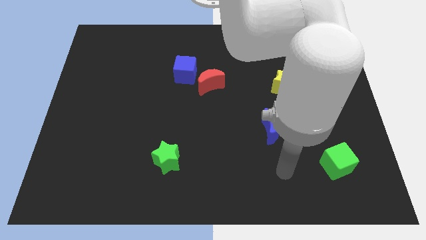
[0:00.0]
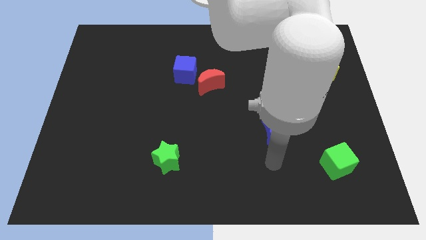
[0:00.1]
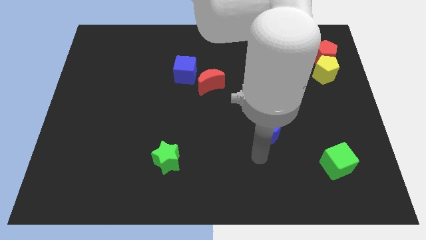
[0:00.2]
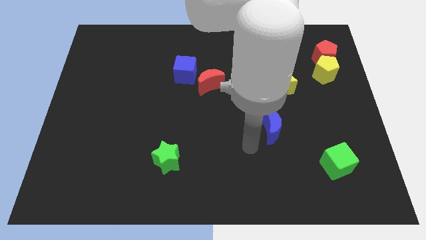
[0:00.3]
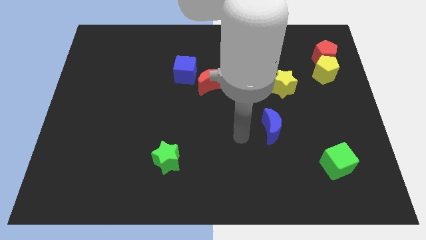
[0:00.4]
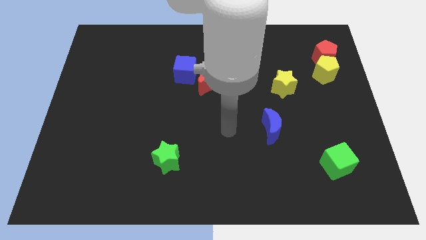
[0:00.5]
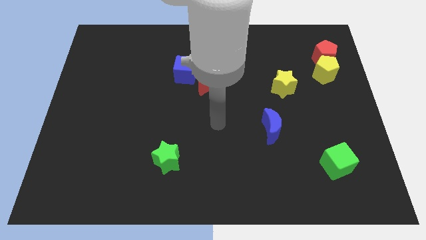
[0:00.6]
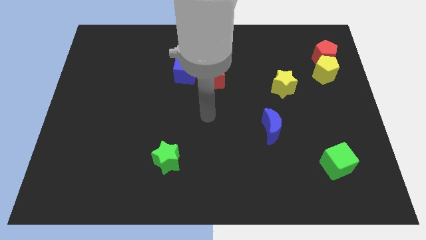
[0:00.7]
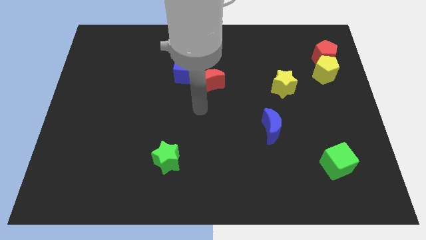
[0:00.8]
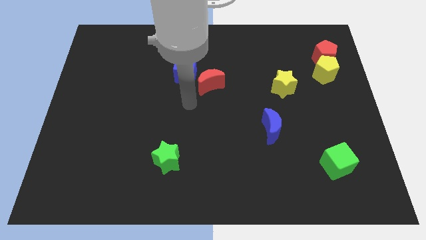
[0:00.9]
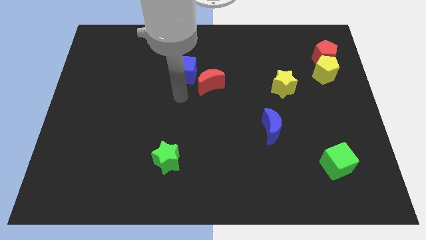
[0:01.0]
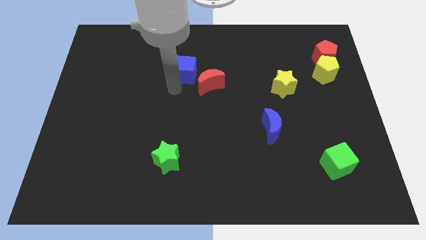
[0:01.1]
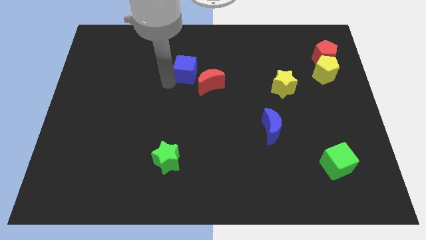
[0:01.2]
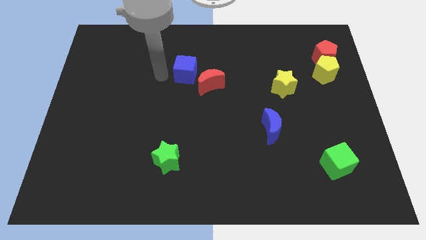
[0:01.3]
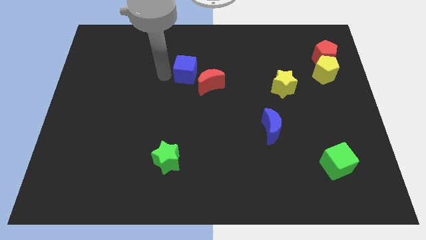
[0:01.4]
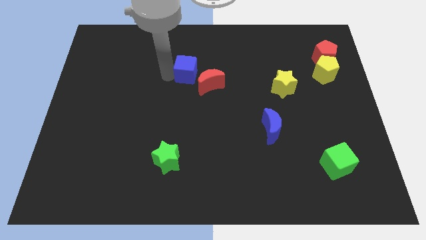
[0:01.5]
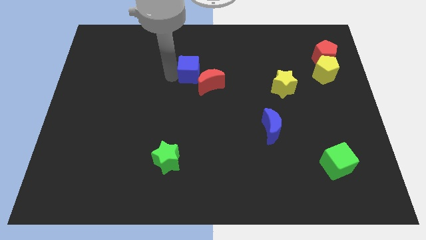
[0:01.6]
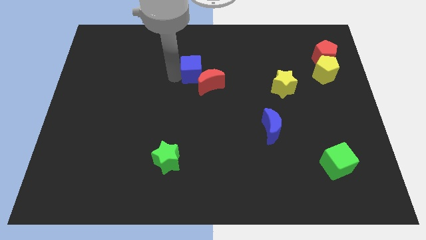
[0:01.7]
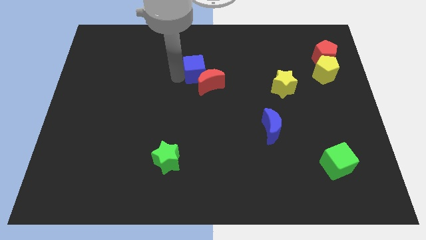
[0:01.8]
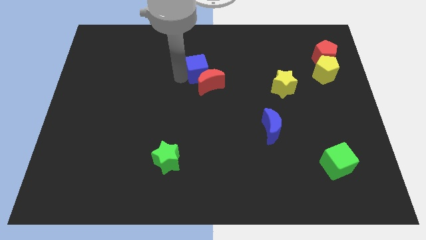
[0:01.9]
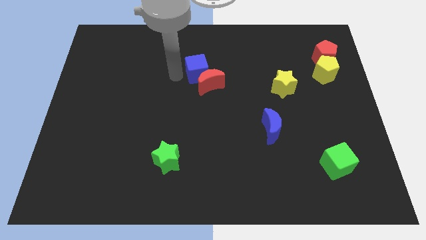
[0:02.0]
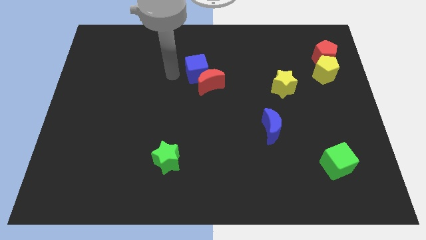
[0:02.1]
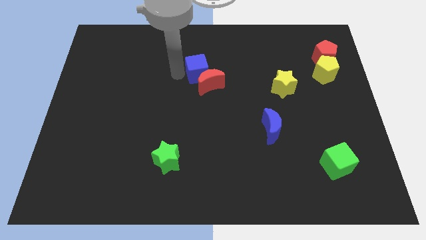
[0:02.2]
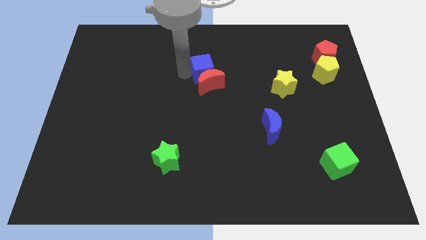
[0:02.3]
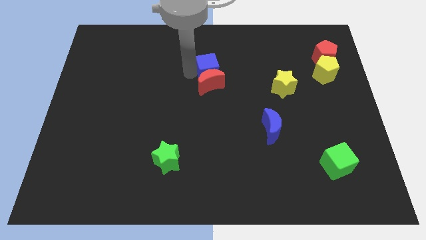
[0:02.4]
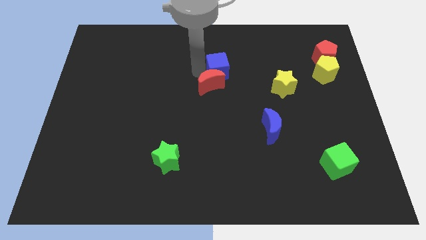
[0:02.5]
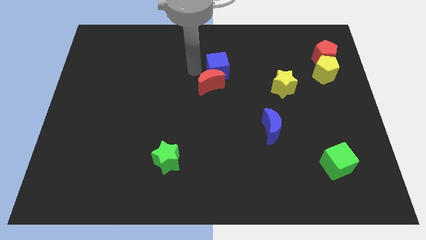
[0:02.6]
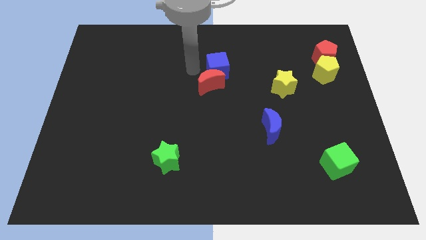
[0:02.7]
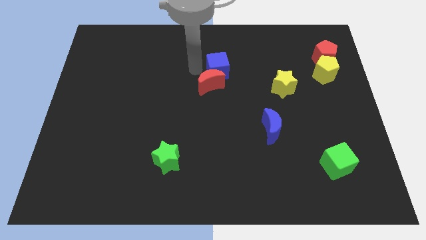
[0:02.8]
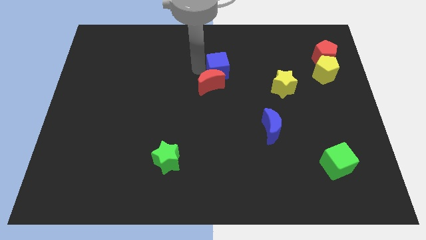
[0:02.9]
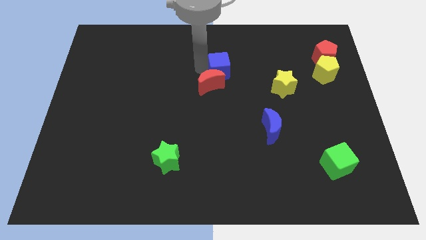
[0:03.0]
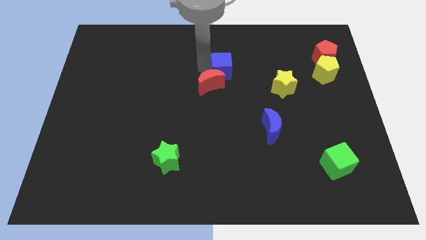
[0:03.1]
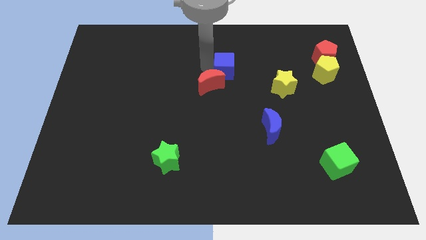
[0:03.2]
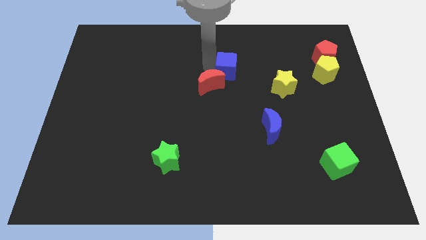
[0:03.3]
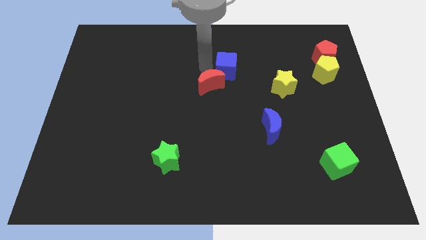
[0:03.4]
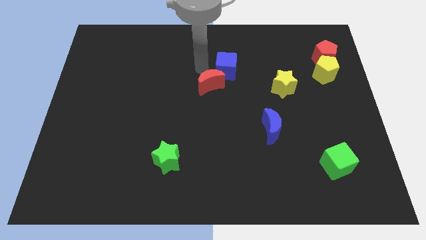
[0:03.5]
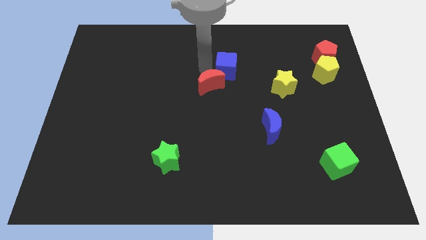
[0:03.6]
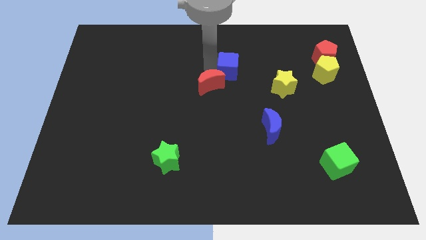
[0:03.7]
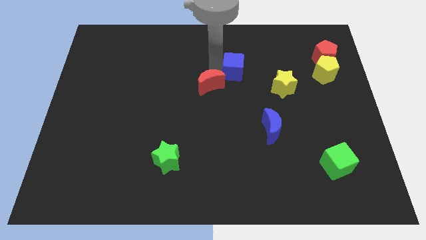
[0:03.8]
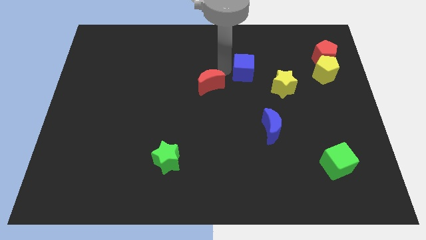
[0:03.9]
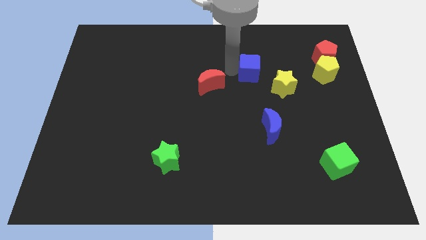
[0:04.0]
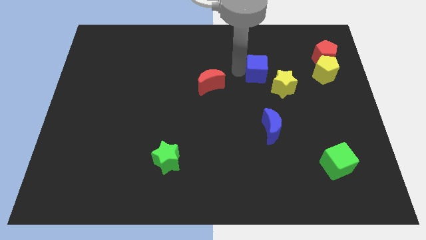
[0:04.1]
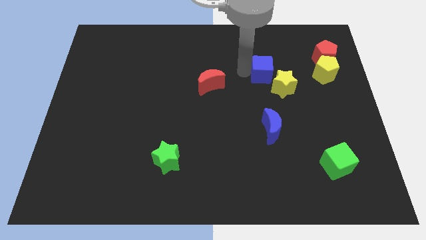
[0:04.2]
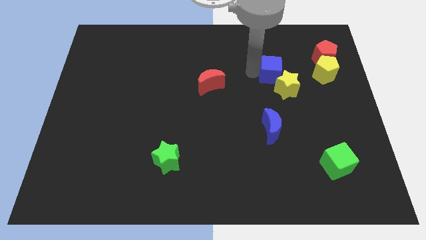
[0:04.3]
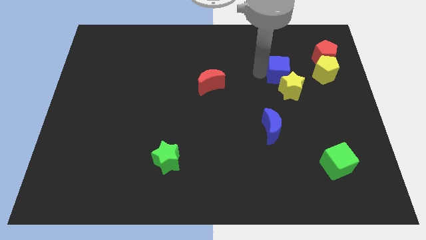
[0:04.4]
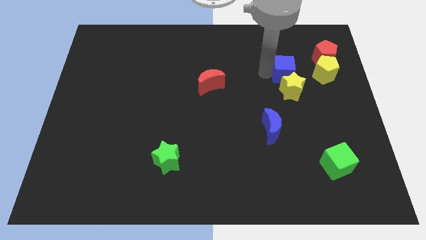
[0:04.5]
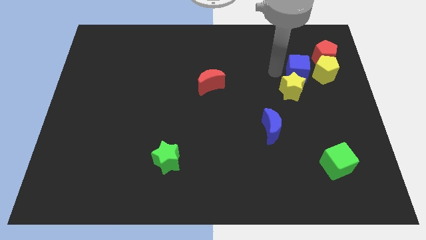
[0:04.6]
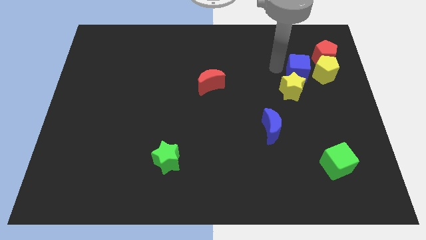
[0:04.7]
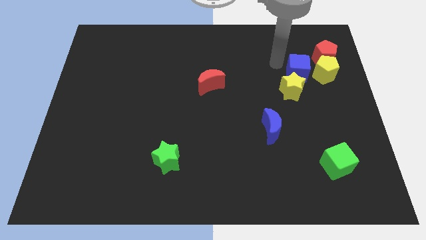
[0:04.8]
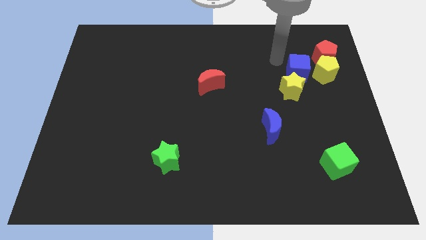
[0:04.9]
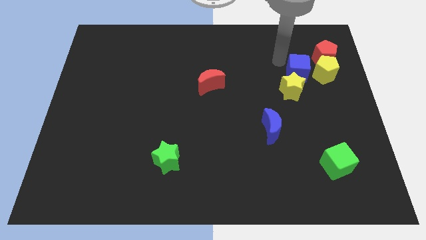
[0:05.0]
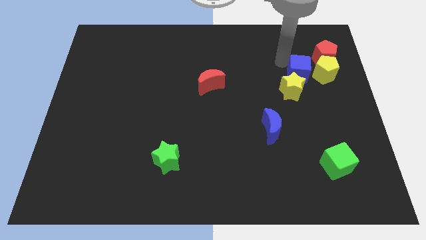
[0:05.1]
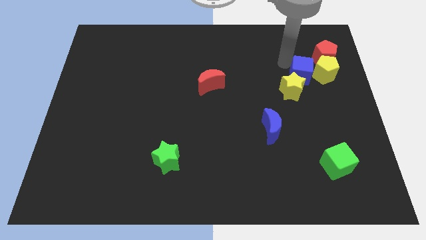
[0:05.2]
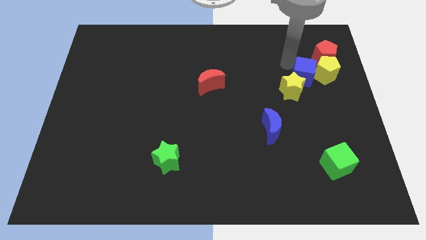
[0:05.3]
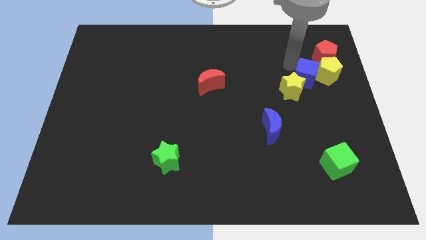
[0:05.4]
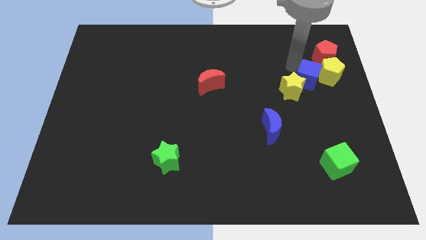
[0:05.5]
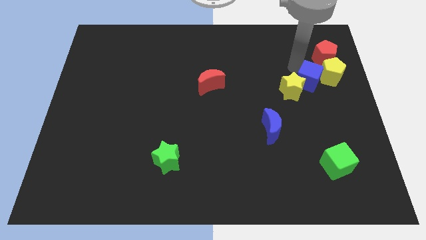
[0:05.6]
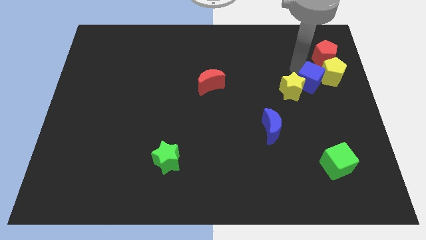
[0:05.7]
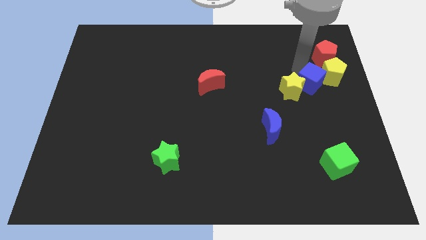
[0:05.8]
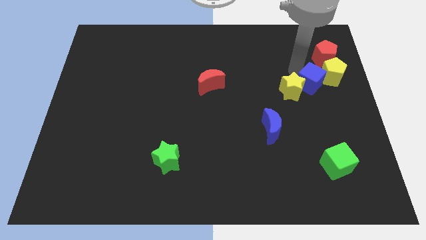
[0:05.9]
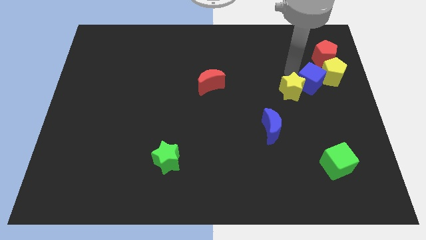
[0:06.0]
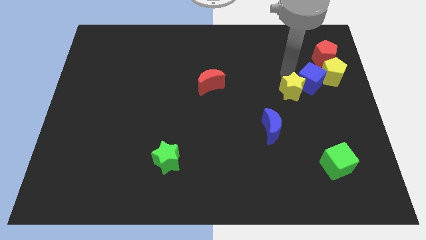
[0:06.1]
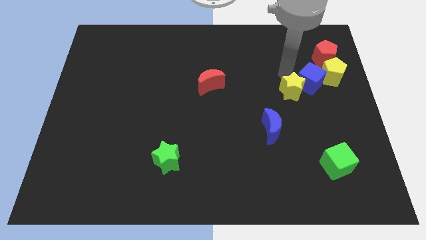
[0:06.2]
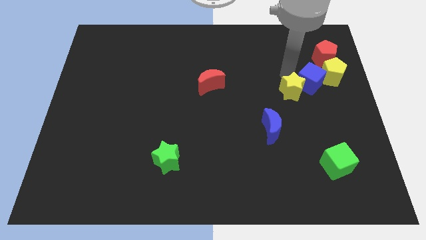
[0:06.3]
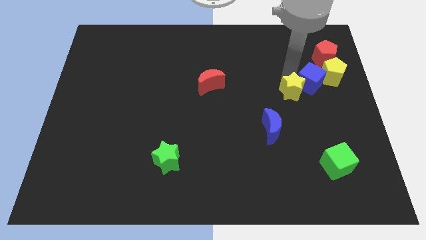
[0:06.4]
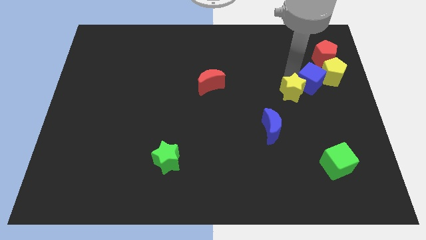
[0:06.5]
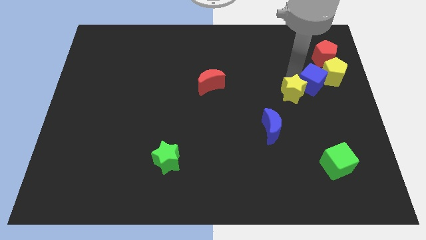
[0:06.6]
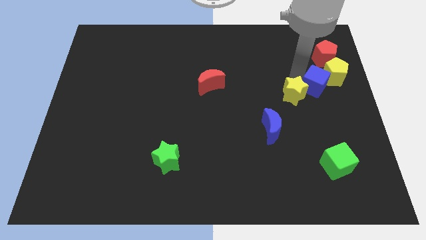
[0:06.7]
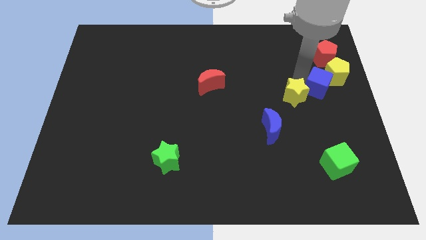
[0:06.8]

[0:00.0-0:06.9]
push the blue cube to the right side of the board

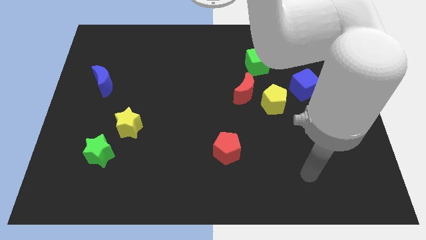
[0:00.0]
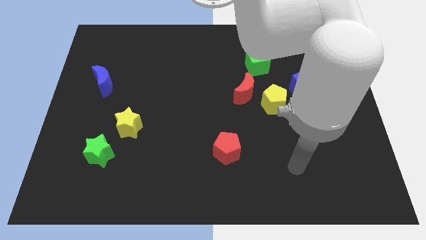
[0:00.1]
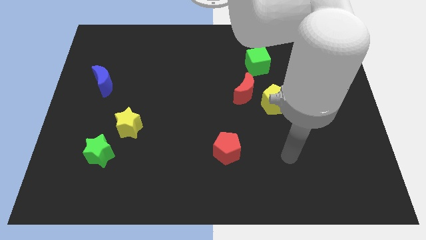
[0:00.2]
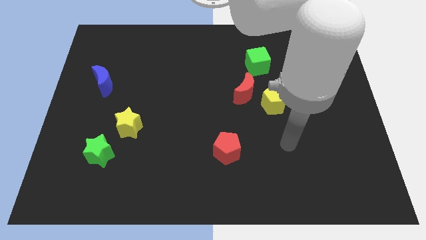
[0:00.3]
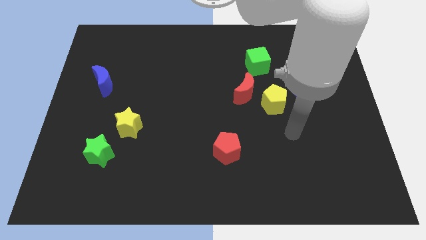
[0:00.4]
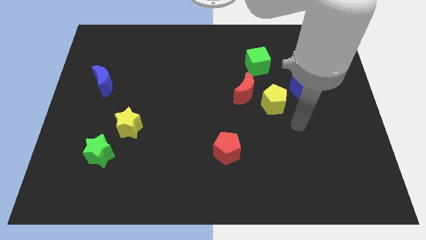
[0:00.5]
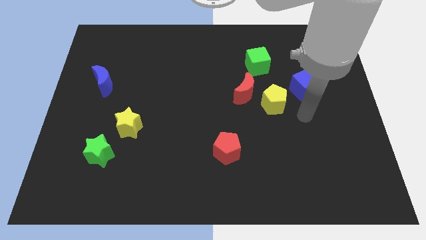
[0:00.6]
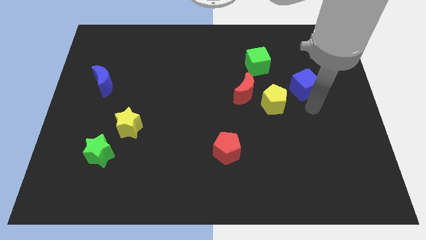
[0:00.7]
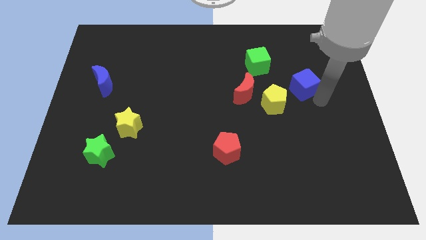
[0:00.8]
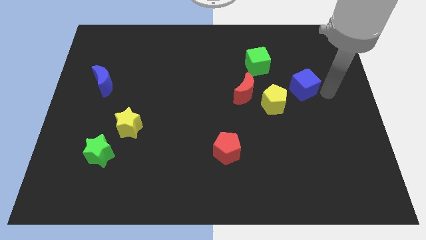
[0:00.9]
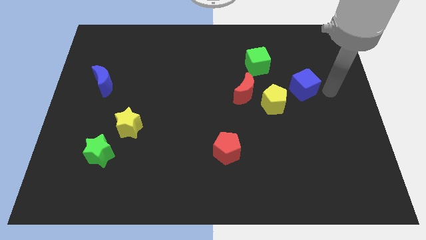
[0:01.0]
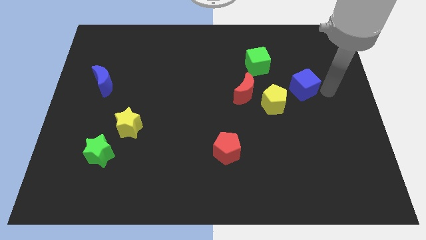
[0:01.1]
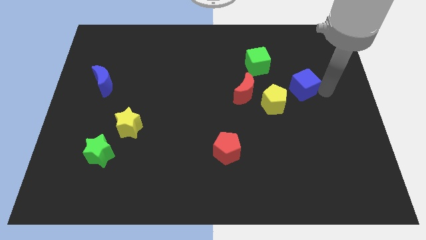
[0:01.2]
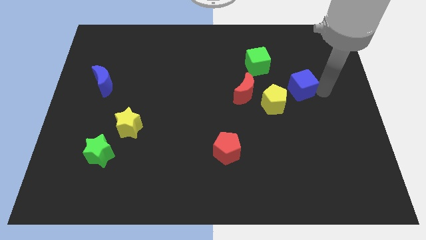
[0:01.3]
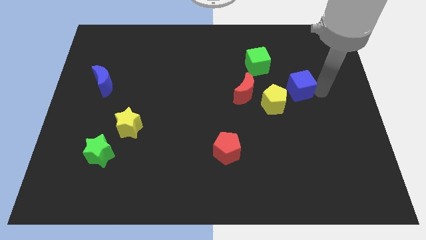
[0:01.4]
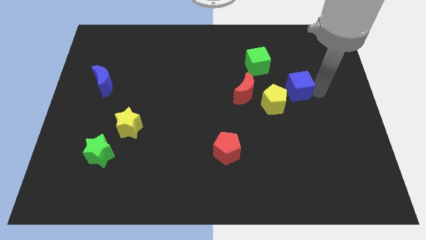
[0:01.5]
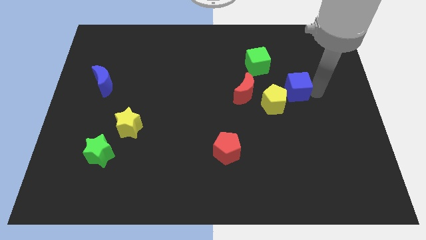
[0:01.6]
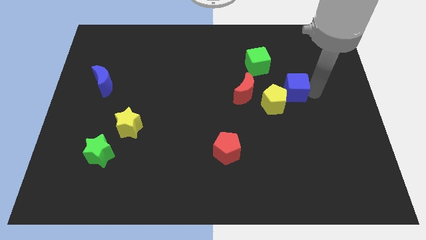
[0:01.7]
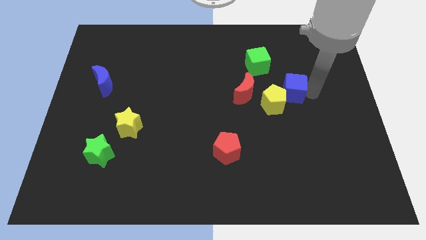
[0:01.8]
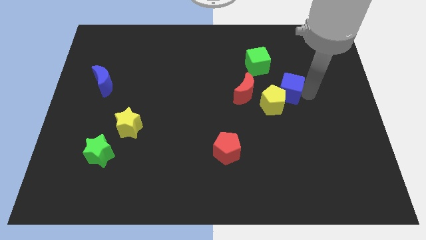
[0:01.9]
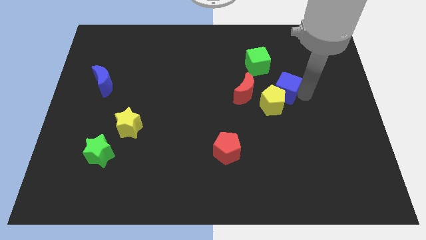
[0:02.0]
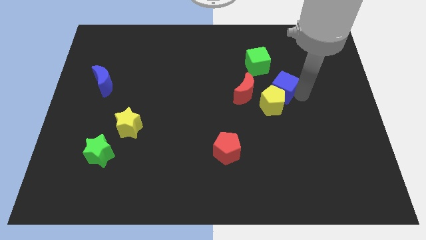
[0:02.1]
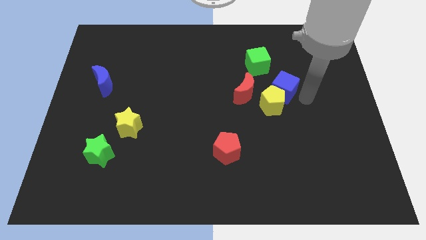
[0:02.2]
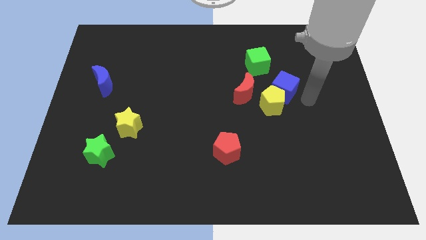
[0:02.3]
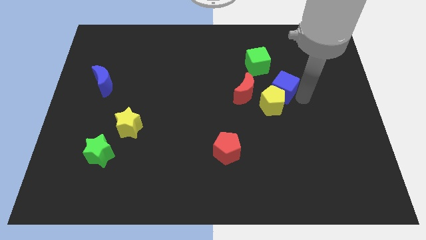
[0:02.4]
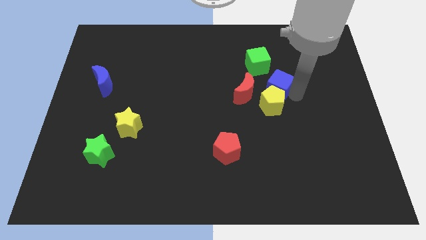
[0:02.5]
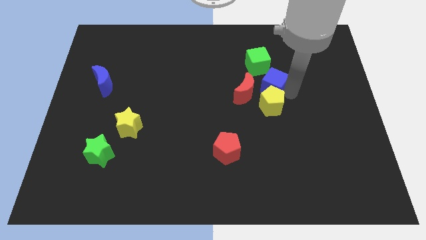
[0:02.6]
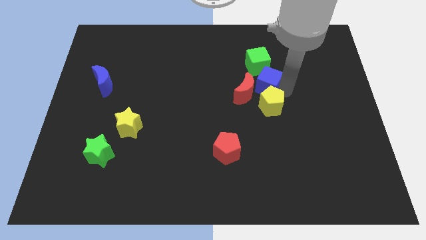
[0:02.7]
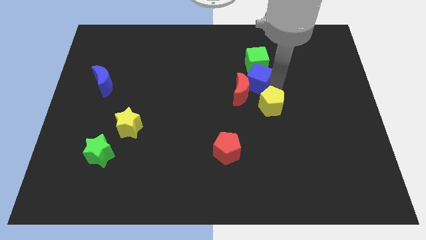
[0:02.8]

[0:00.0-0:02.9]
put the blue cube to the center
